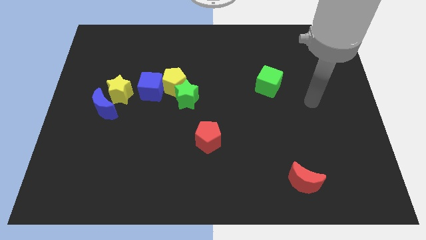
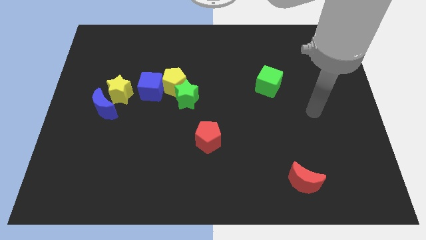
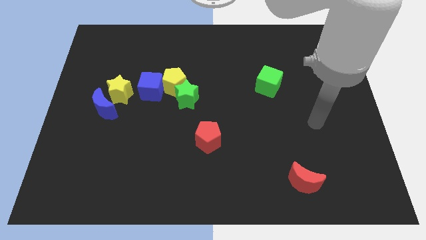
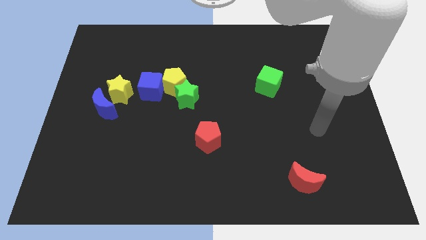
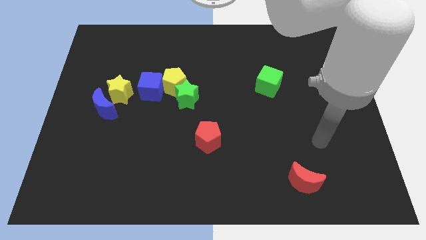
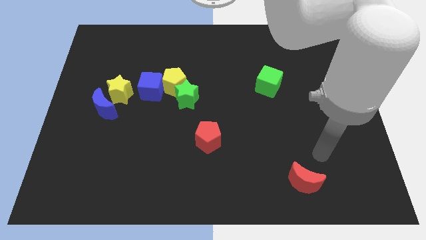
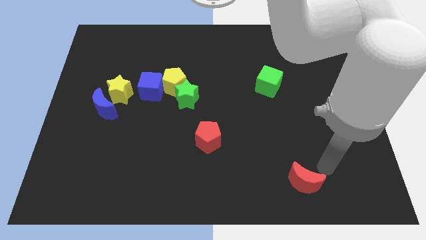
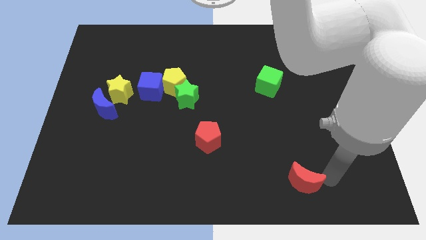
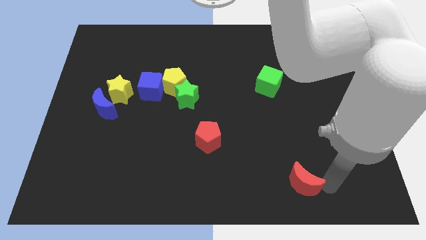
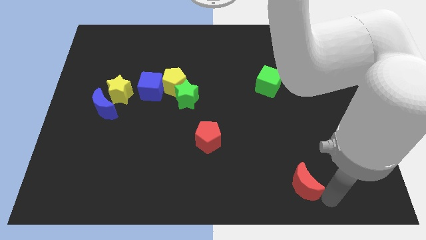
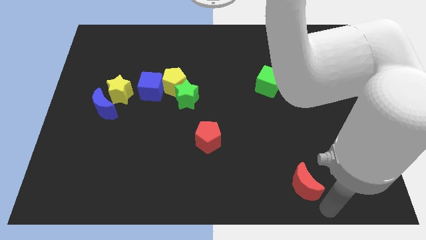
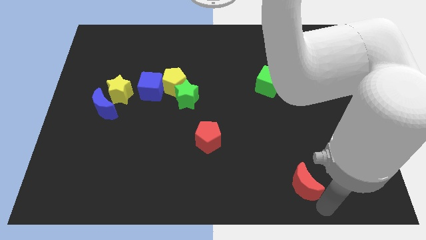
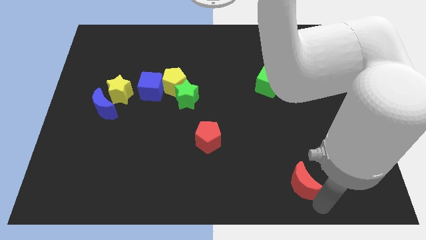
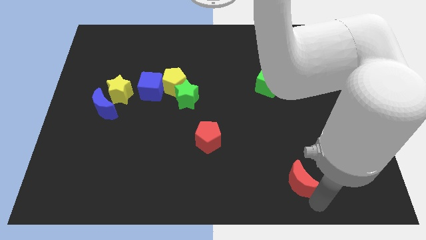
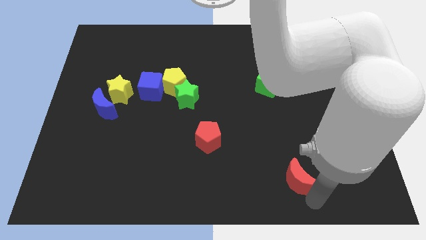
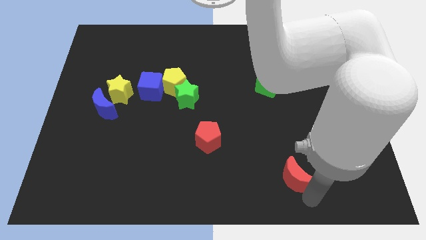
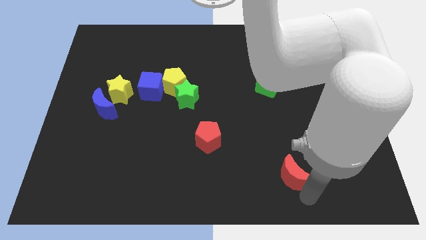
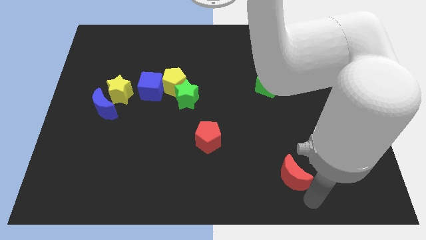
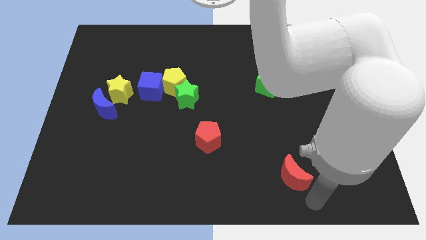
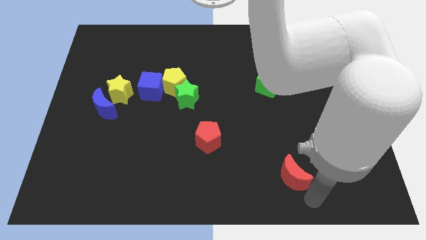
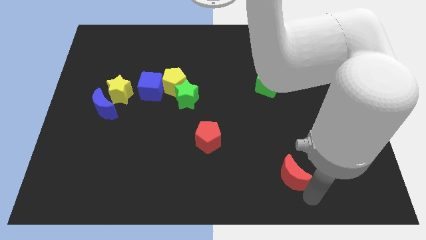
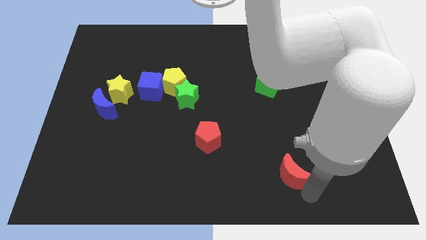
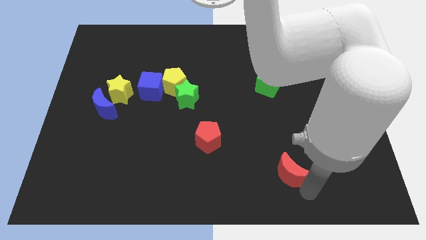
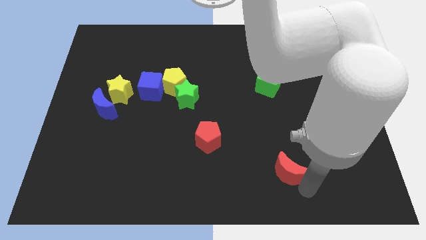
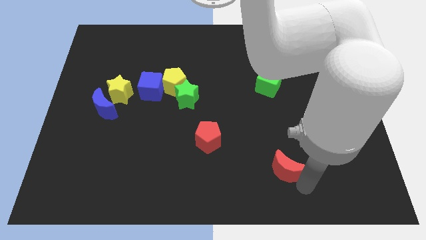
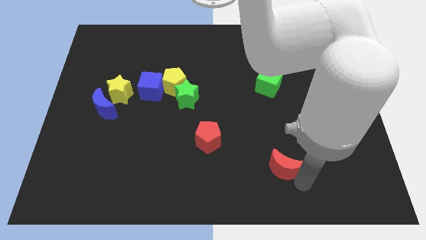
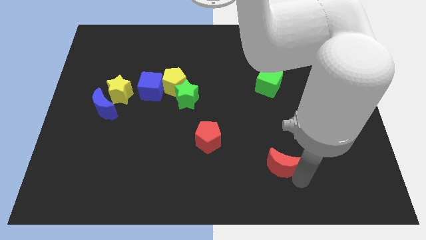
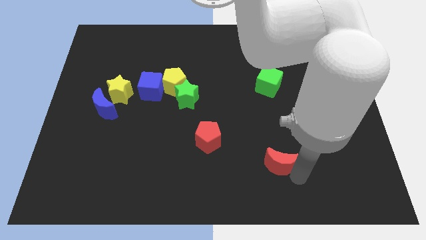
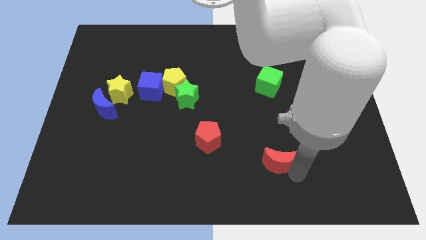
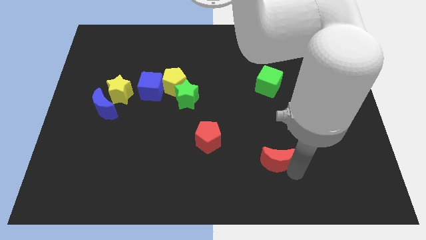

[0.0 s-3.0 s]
slightly slide the red moon diagonally upwards and left

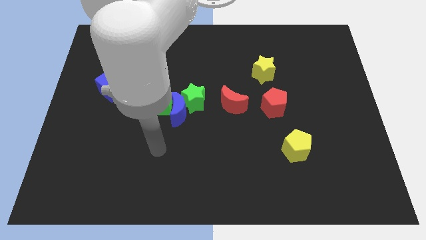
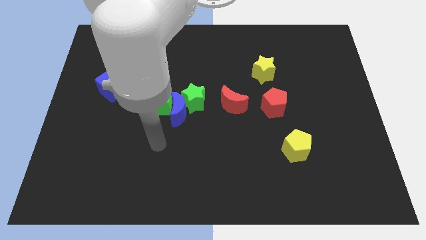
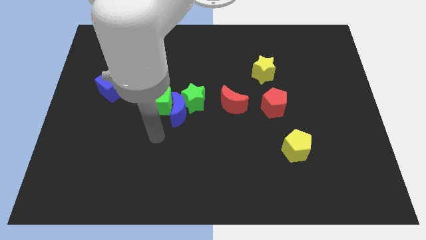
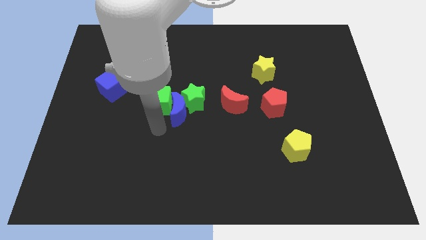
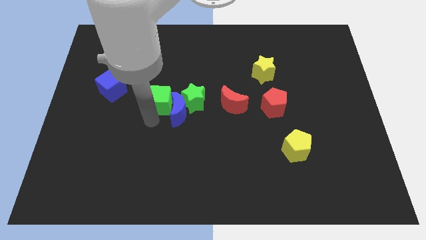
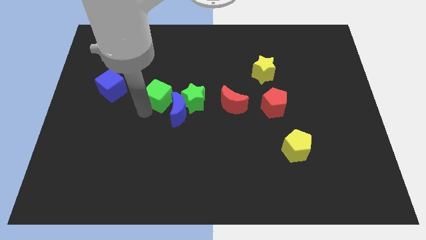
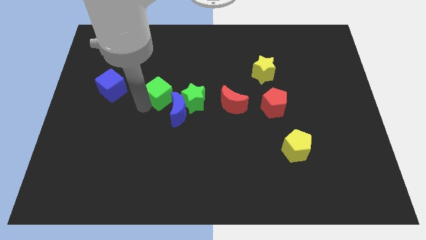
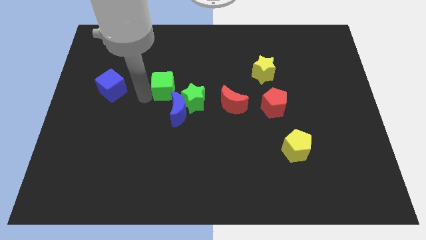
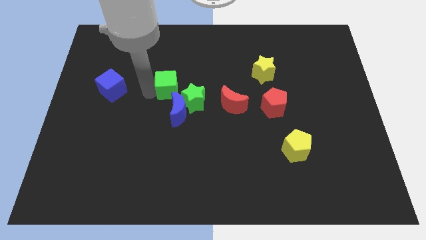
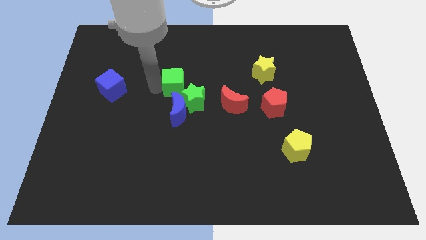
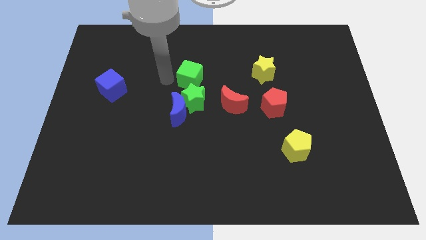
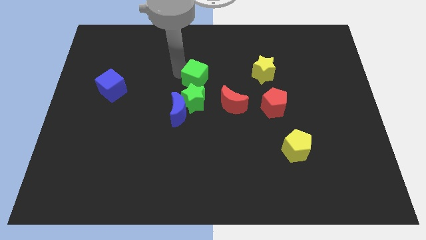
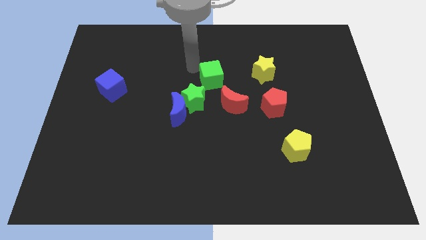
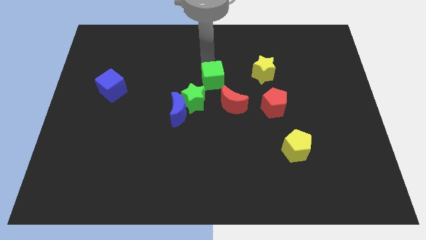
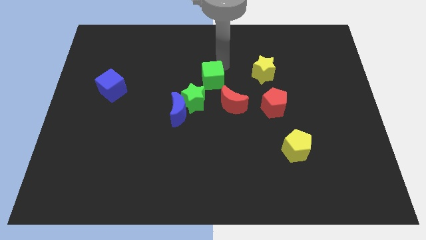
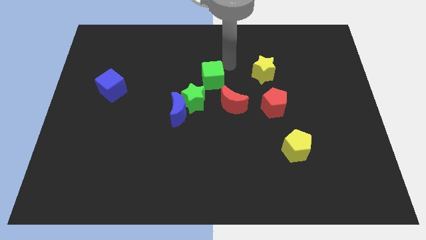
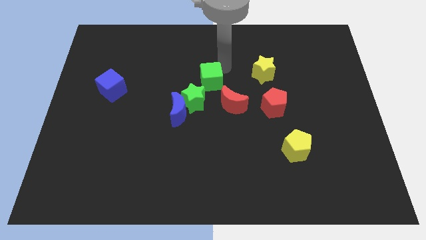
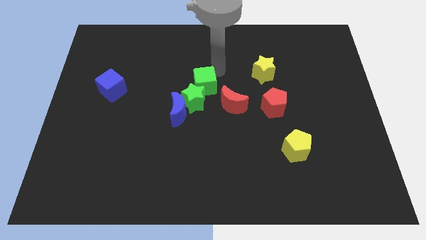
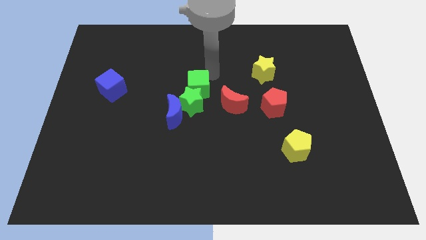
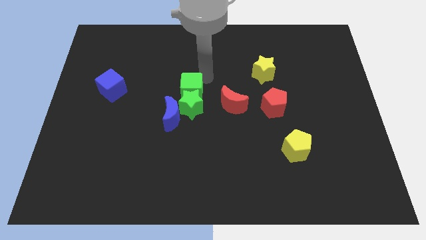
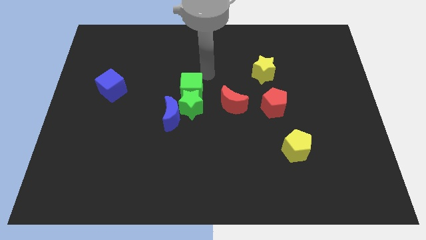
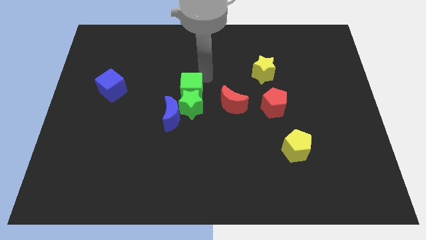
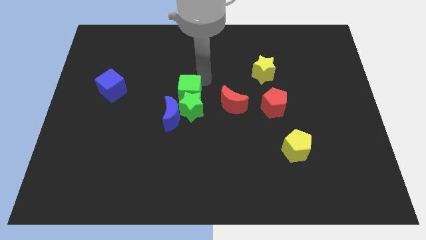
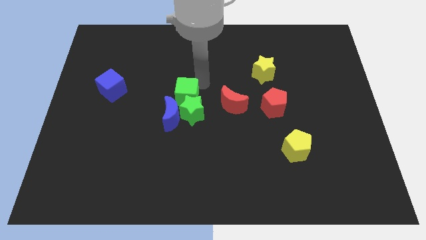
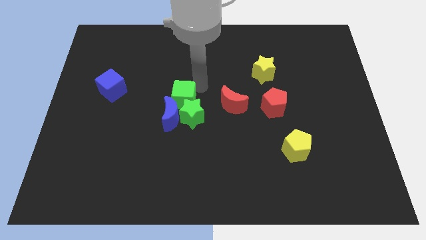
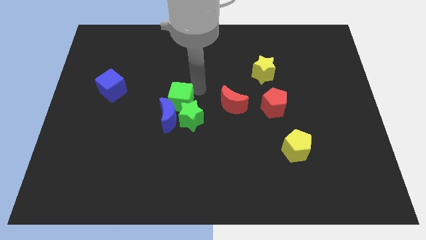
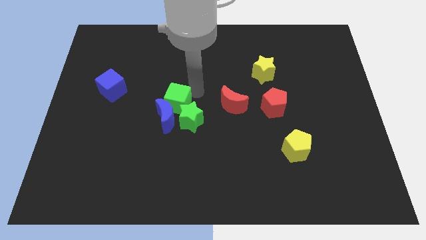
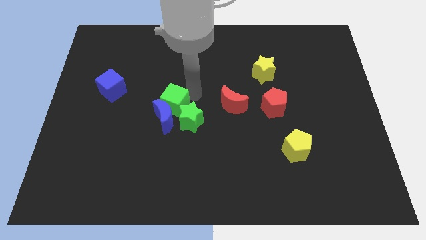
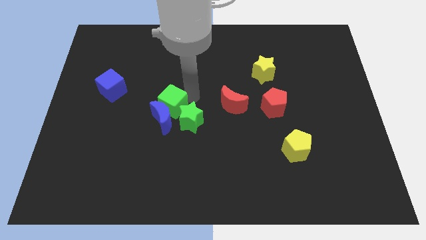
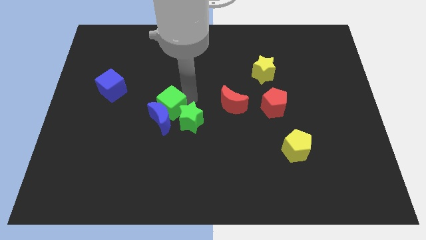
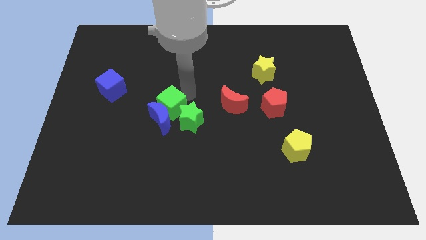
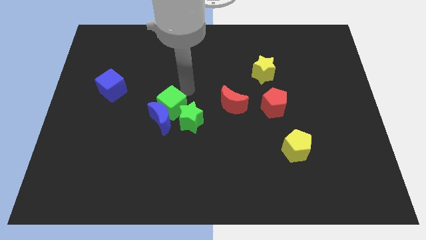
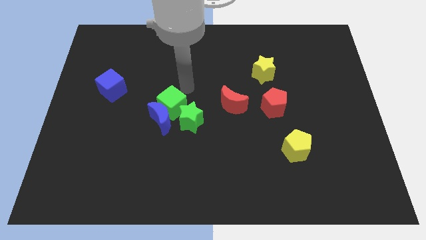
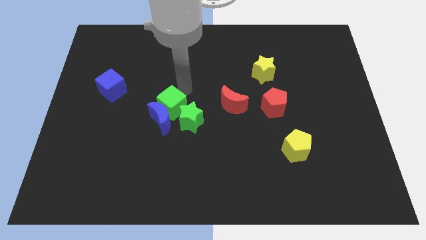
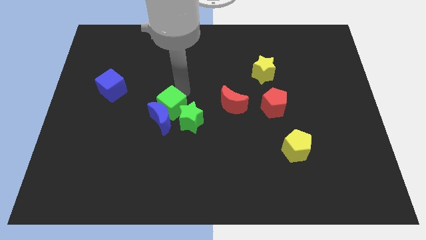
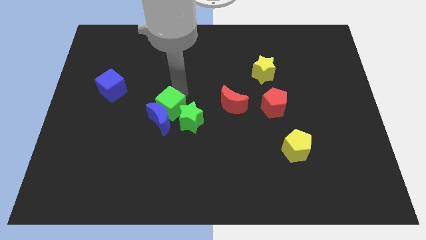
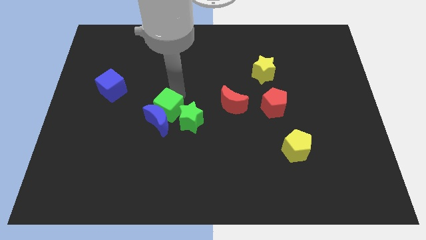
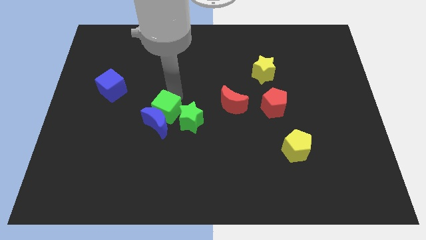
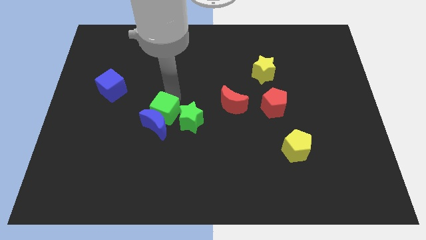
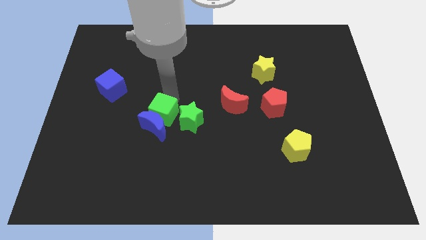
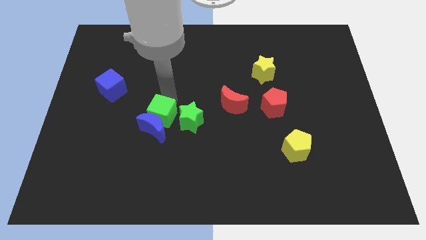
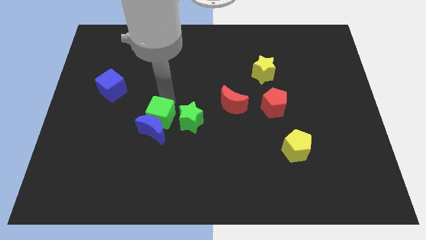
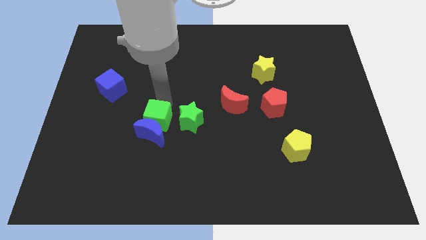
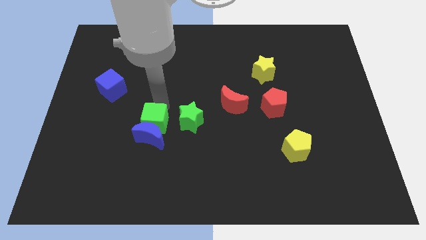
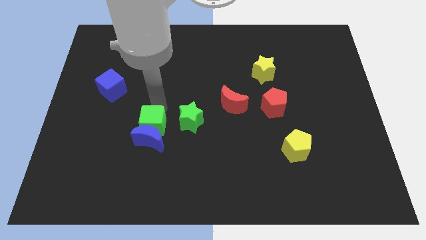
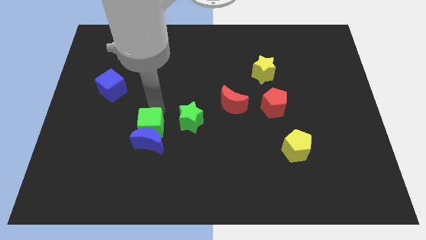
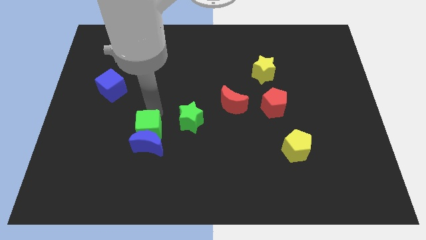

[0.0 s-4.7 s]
slide the green cube down a little

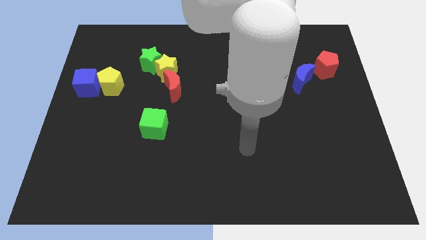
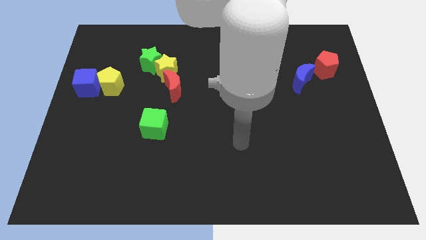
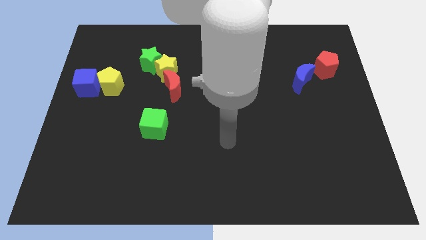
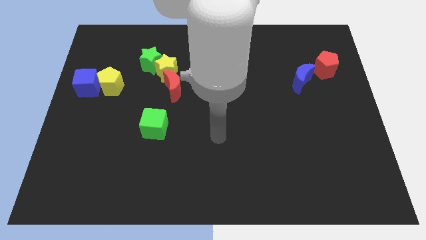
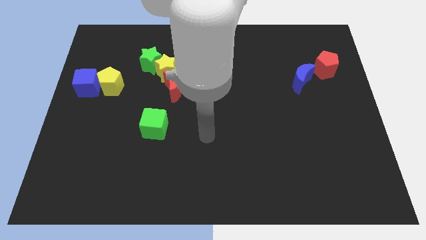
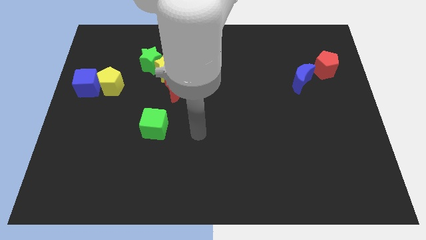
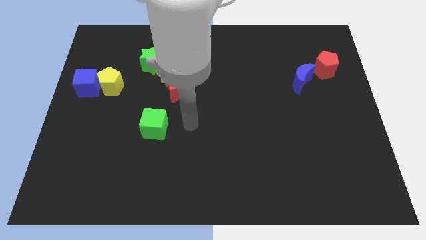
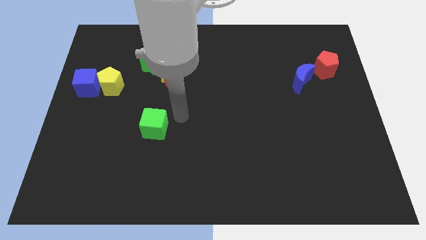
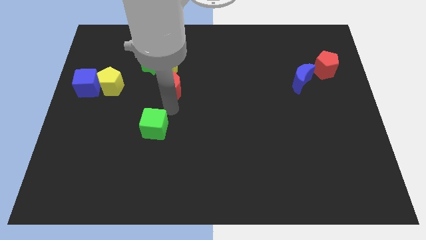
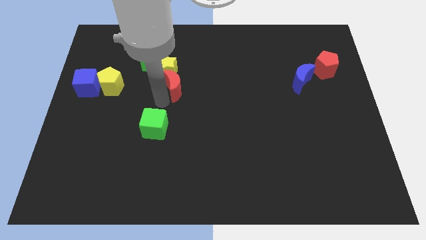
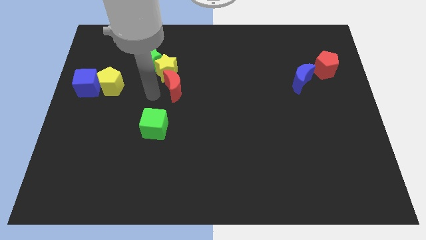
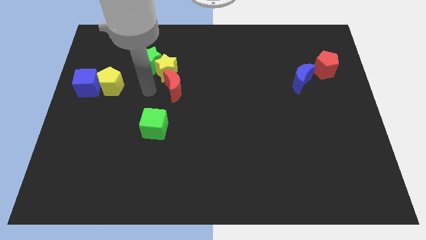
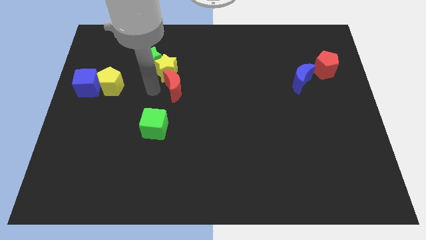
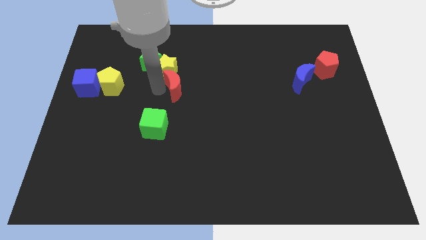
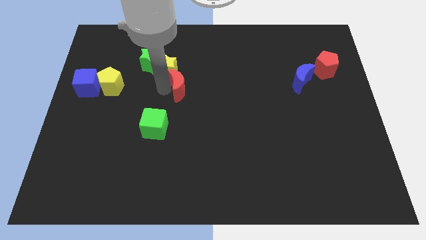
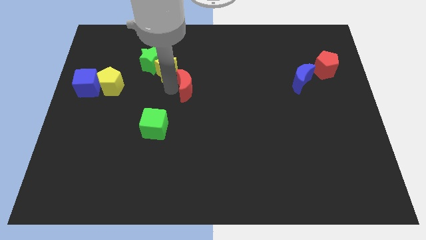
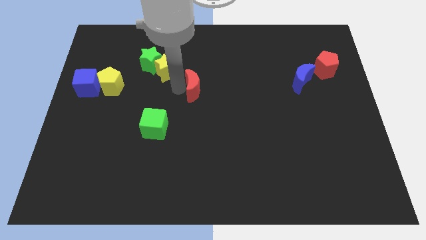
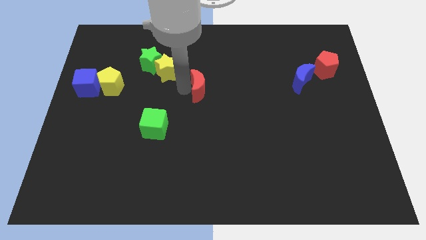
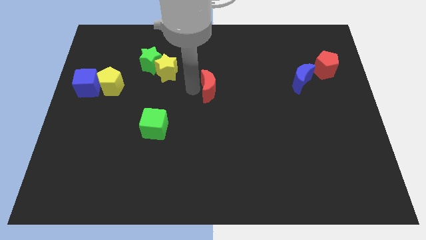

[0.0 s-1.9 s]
push the red moon a bit right
